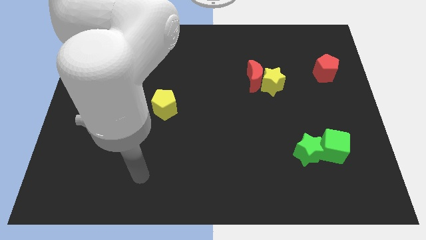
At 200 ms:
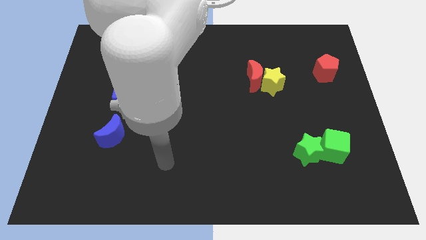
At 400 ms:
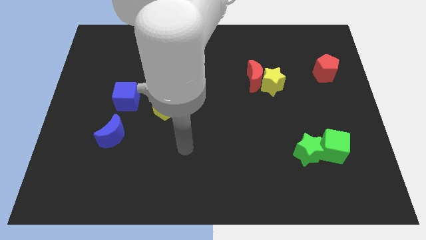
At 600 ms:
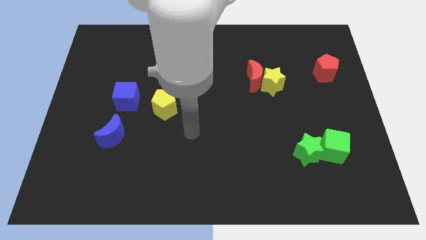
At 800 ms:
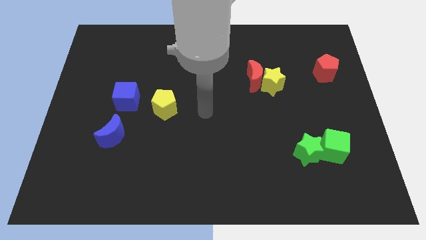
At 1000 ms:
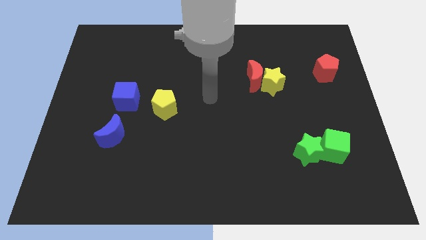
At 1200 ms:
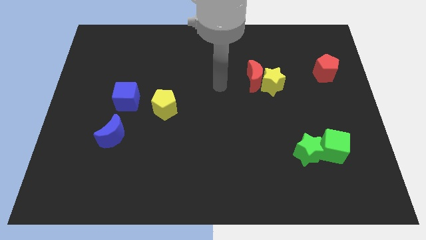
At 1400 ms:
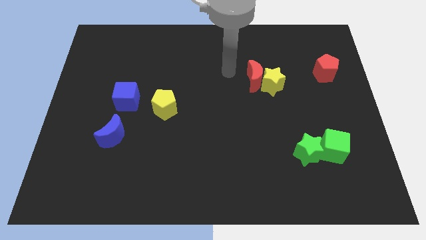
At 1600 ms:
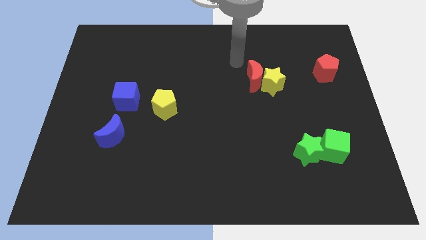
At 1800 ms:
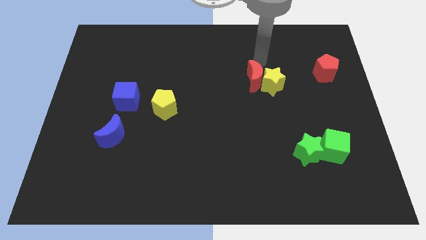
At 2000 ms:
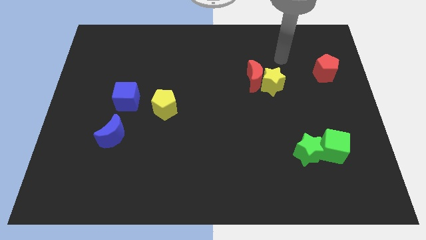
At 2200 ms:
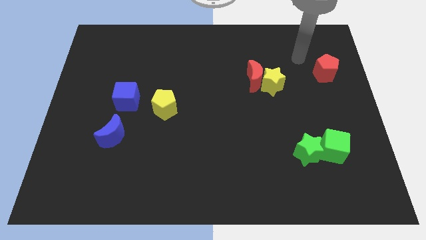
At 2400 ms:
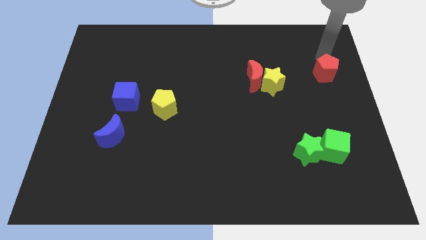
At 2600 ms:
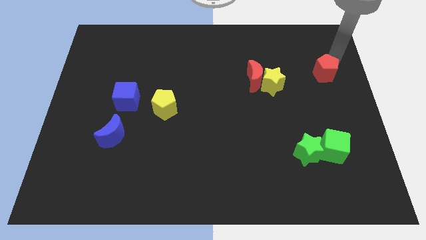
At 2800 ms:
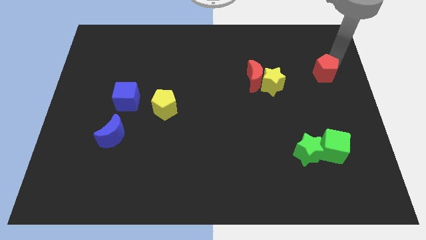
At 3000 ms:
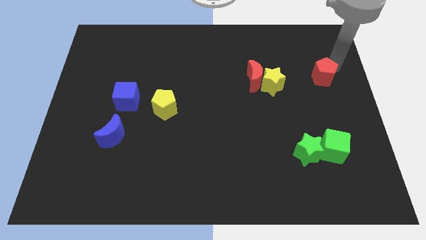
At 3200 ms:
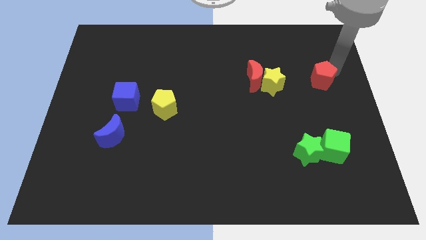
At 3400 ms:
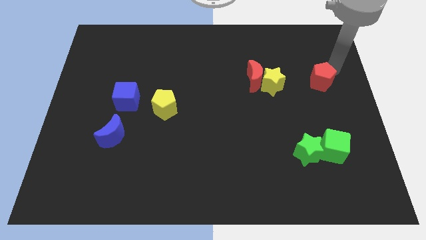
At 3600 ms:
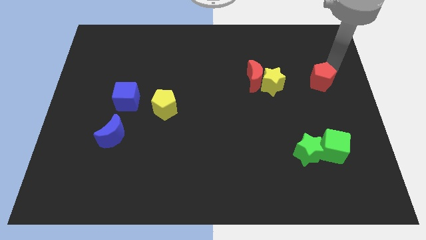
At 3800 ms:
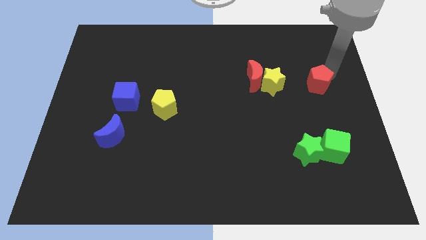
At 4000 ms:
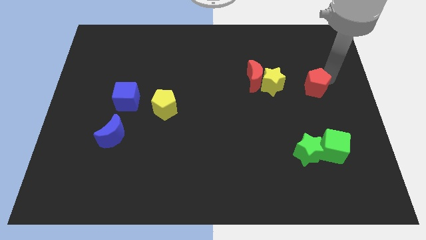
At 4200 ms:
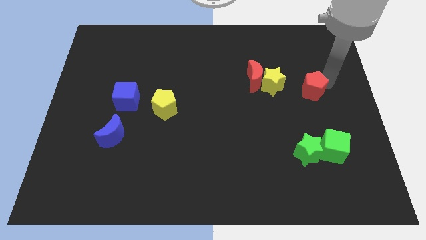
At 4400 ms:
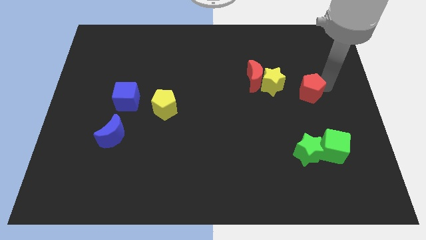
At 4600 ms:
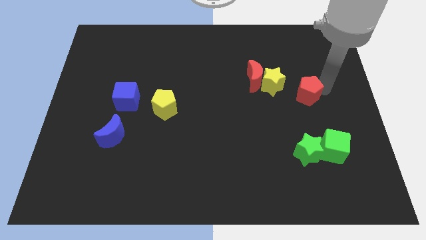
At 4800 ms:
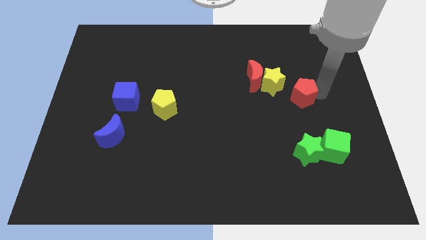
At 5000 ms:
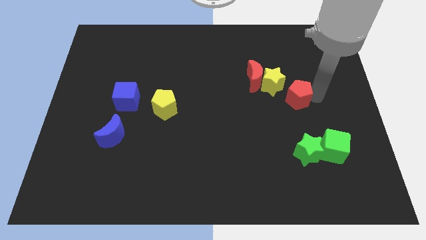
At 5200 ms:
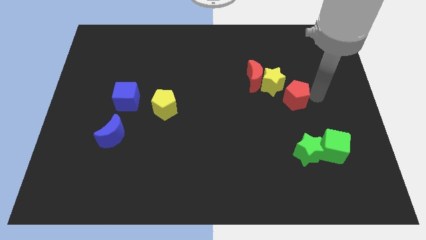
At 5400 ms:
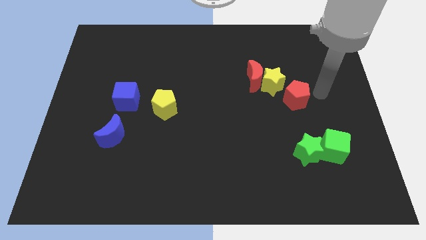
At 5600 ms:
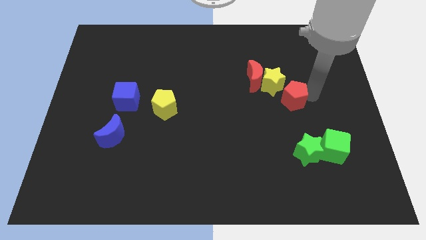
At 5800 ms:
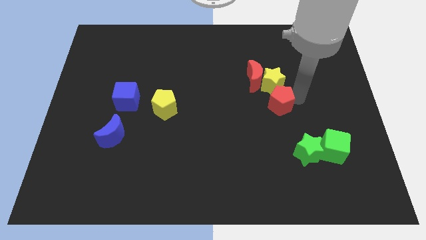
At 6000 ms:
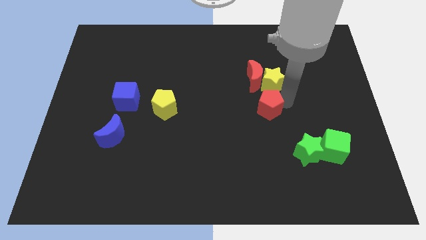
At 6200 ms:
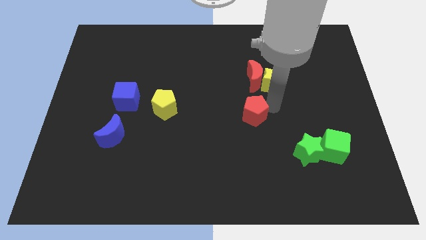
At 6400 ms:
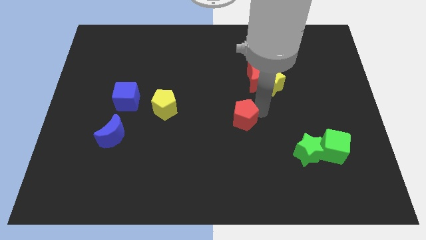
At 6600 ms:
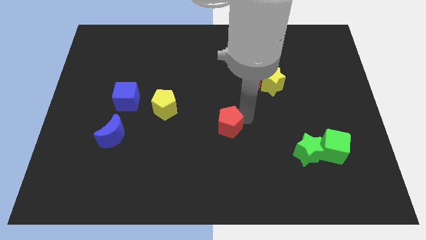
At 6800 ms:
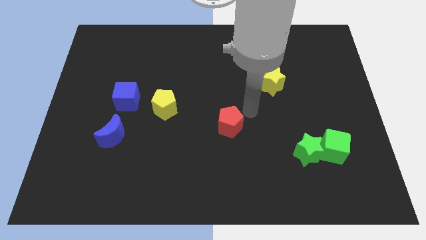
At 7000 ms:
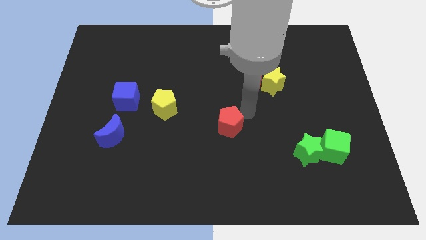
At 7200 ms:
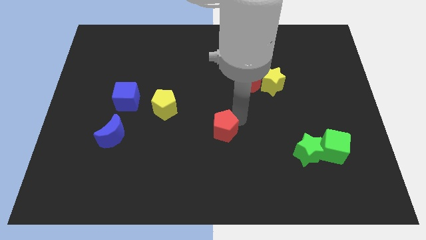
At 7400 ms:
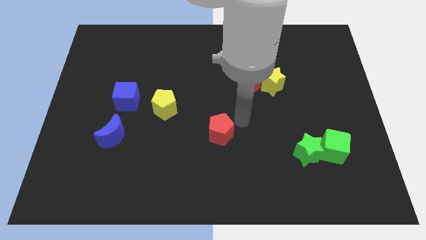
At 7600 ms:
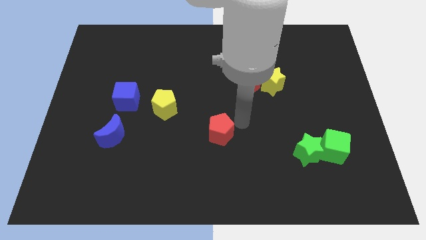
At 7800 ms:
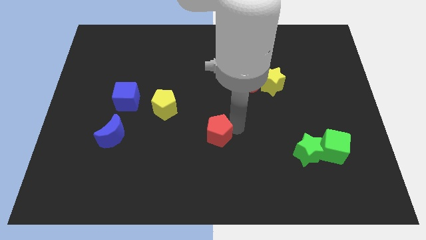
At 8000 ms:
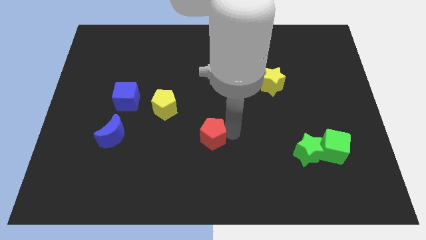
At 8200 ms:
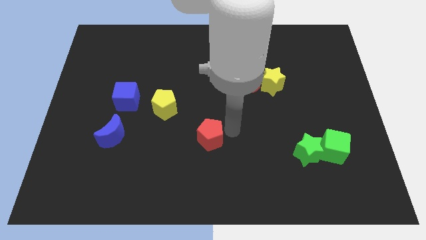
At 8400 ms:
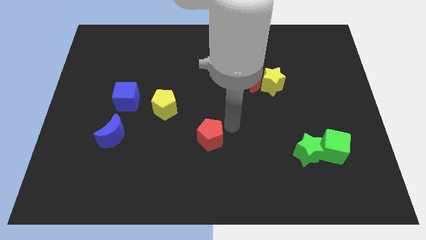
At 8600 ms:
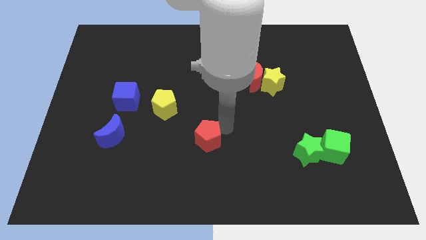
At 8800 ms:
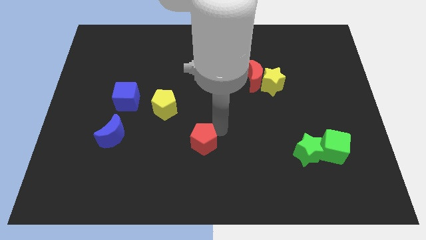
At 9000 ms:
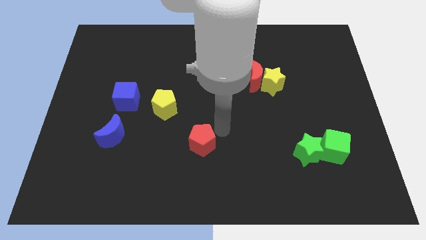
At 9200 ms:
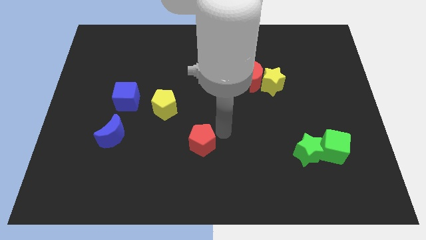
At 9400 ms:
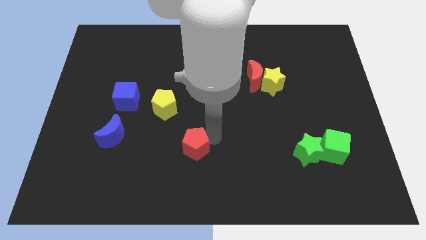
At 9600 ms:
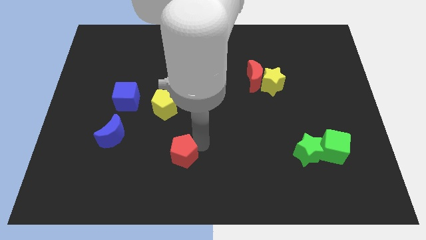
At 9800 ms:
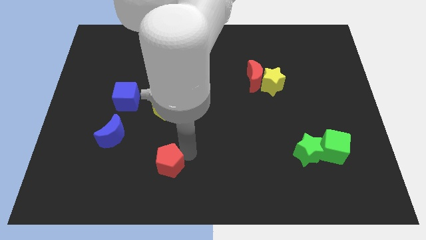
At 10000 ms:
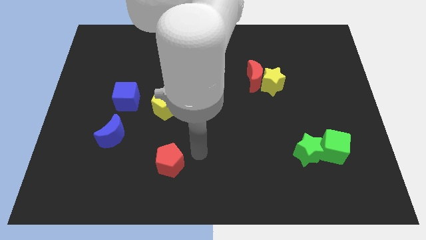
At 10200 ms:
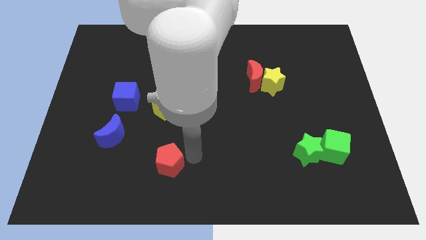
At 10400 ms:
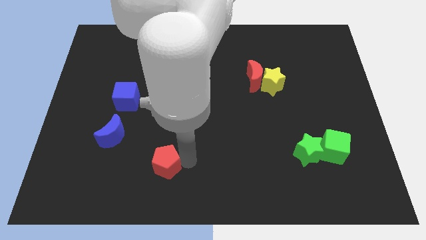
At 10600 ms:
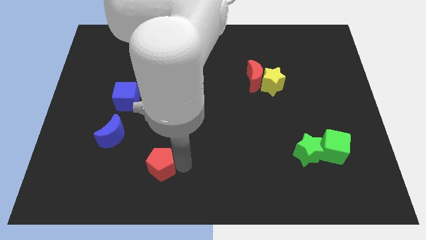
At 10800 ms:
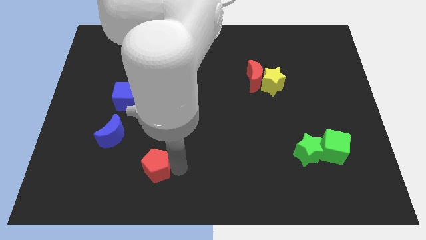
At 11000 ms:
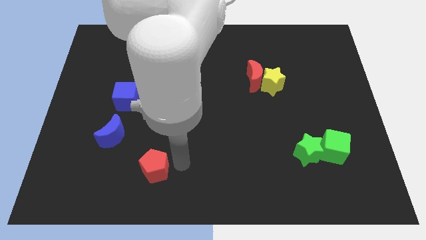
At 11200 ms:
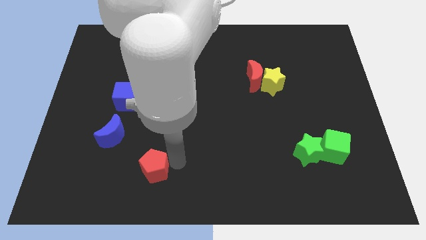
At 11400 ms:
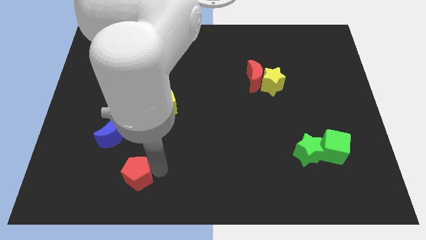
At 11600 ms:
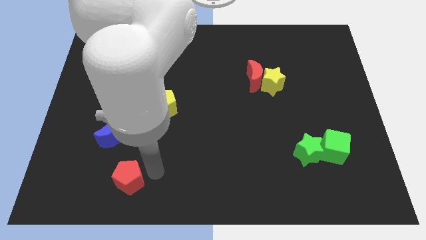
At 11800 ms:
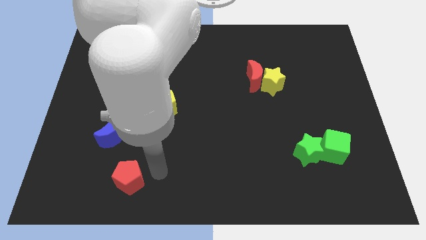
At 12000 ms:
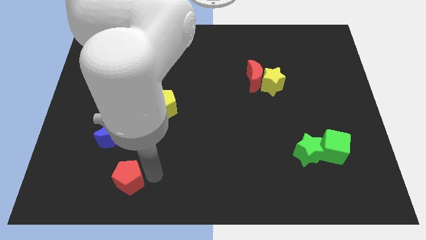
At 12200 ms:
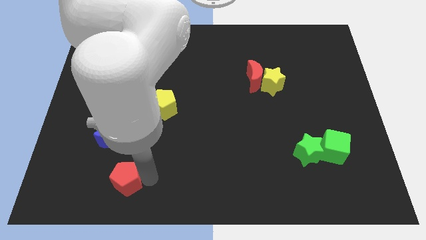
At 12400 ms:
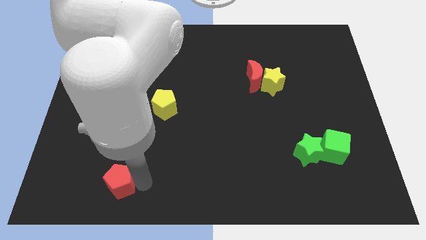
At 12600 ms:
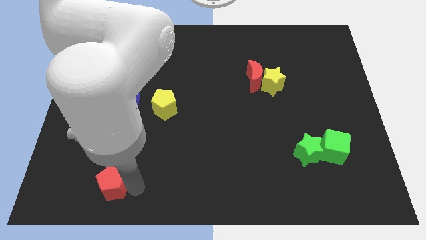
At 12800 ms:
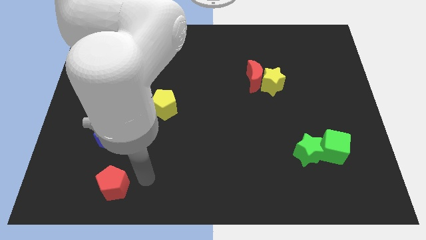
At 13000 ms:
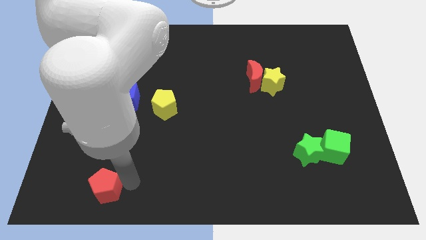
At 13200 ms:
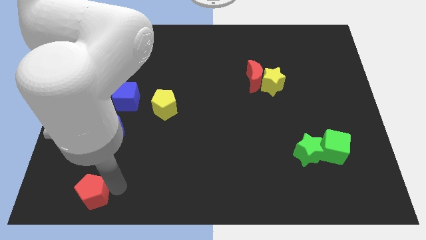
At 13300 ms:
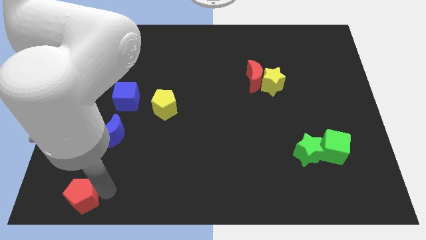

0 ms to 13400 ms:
move the red pentagon to the bottom left corner
